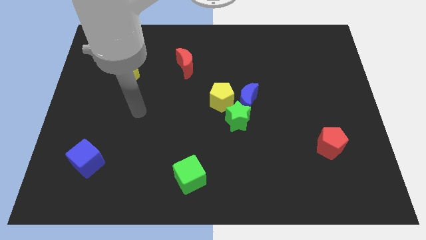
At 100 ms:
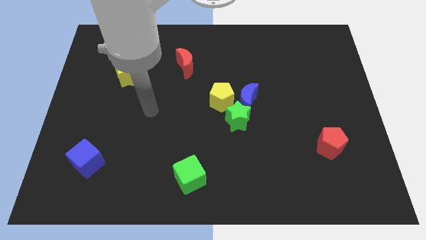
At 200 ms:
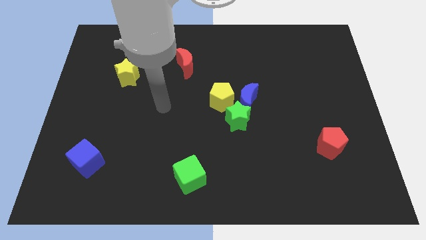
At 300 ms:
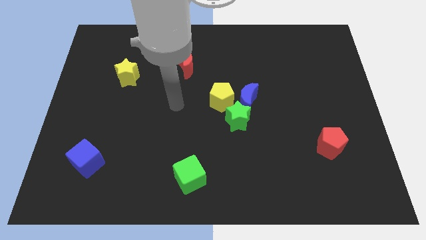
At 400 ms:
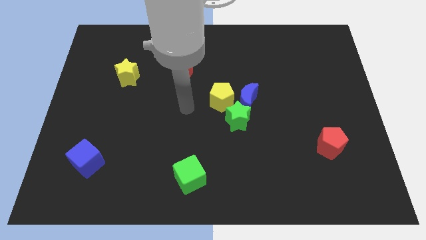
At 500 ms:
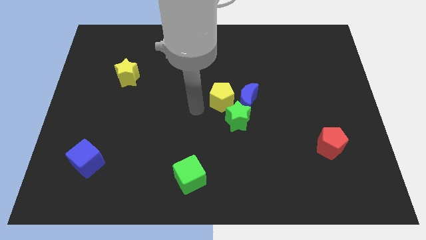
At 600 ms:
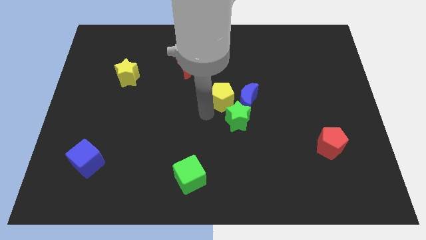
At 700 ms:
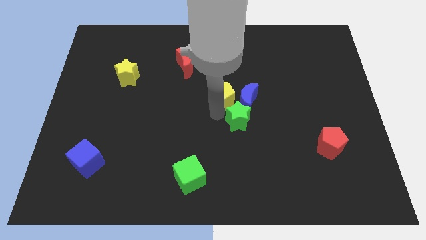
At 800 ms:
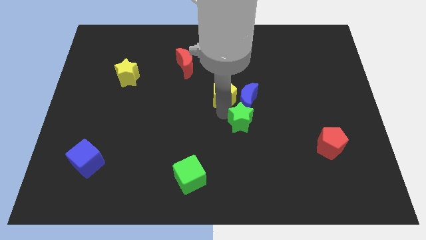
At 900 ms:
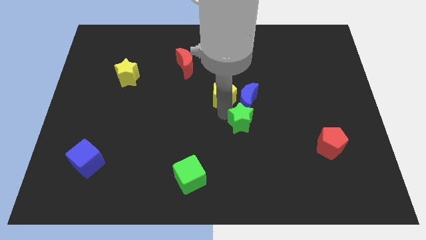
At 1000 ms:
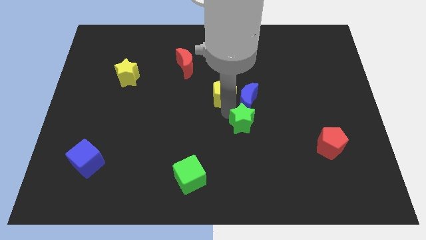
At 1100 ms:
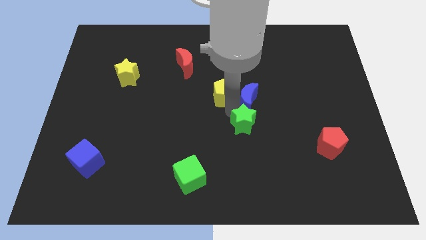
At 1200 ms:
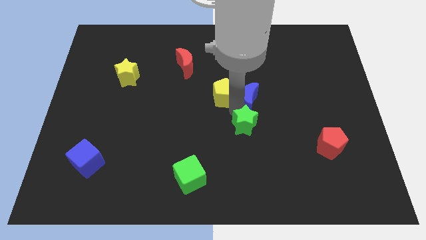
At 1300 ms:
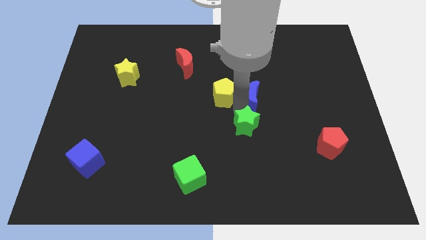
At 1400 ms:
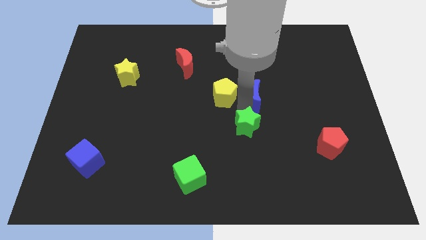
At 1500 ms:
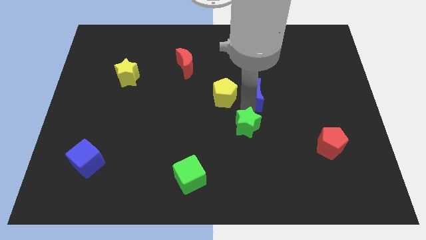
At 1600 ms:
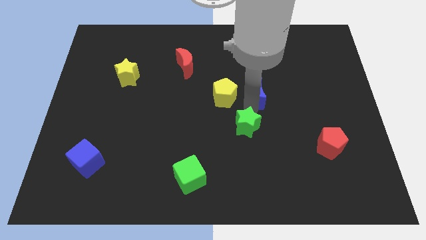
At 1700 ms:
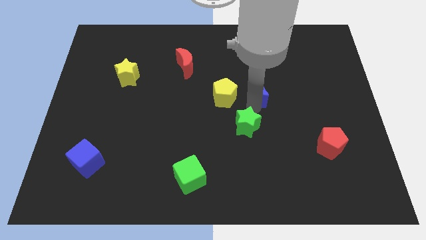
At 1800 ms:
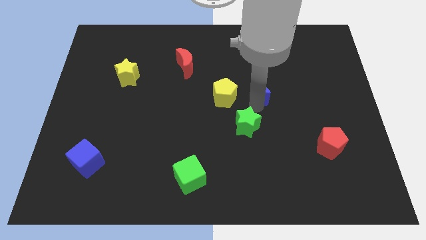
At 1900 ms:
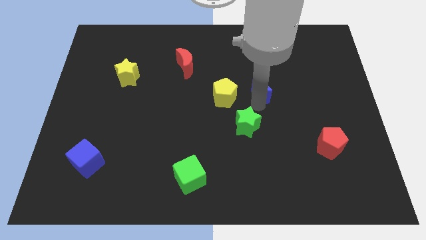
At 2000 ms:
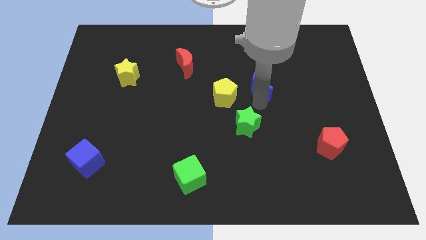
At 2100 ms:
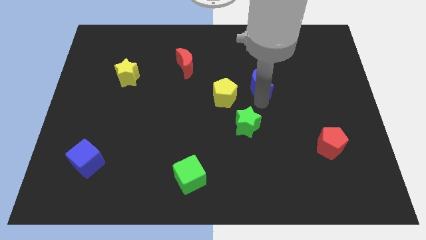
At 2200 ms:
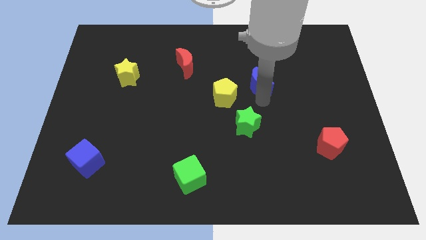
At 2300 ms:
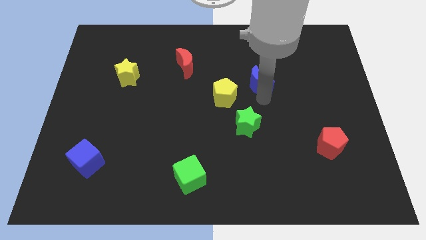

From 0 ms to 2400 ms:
pull the blue moon apart from the green star and yellow pentagon

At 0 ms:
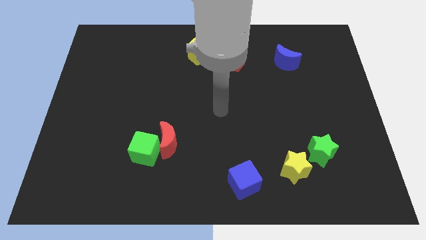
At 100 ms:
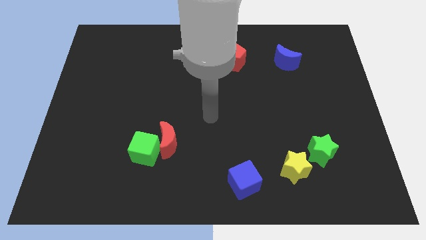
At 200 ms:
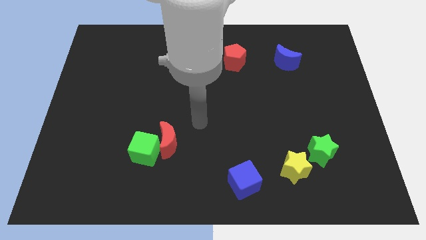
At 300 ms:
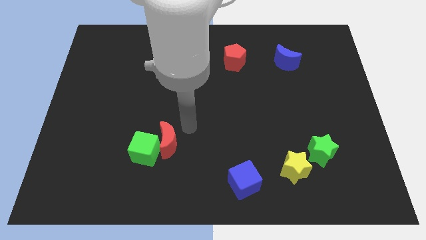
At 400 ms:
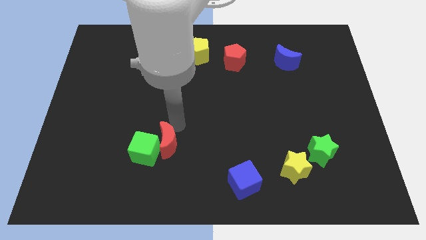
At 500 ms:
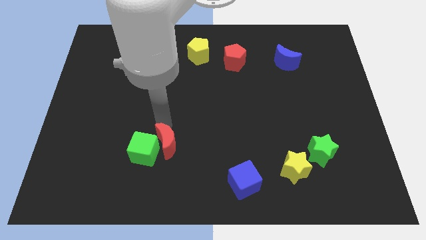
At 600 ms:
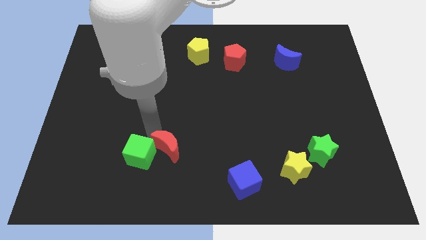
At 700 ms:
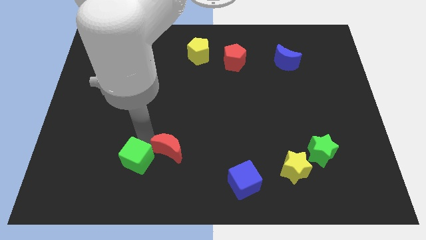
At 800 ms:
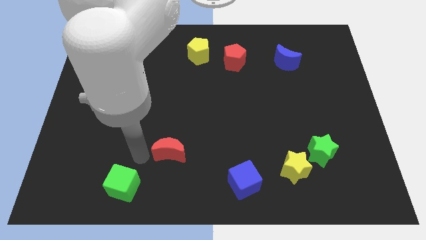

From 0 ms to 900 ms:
separate the red moon from the green cube

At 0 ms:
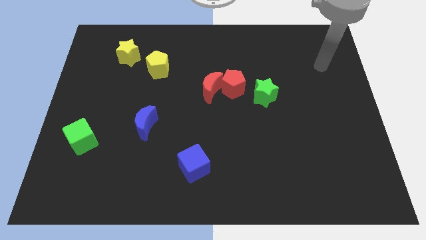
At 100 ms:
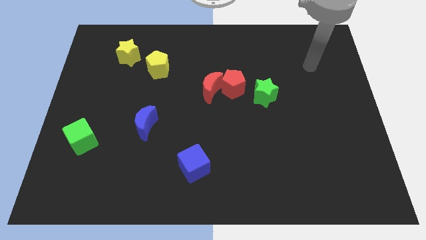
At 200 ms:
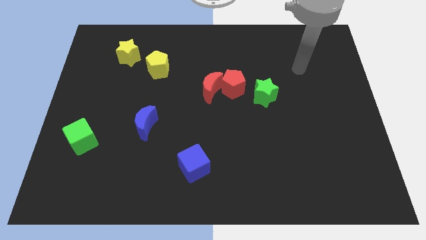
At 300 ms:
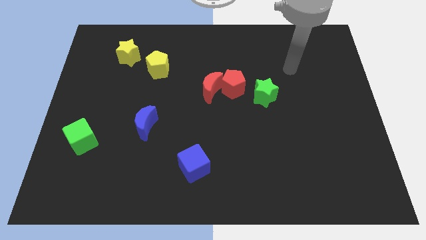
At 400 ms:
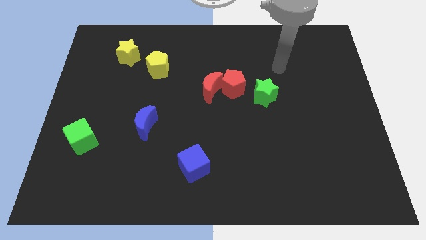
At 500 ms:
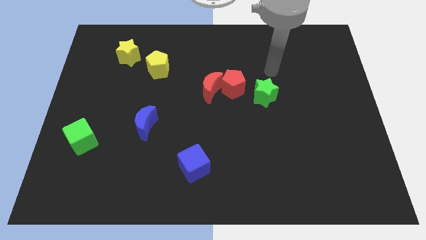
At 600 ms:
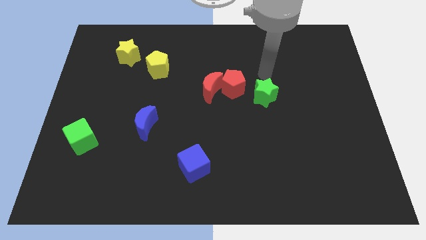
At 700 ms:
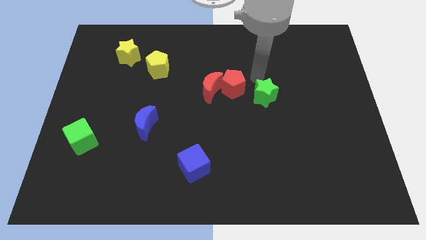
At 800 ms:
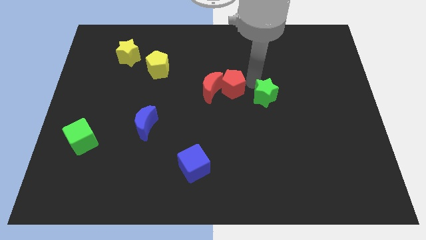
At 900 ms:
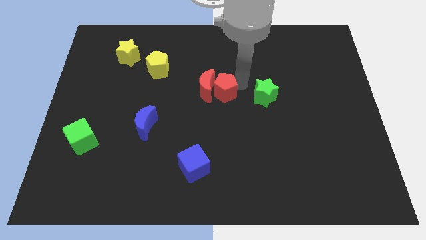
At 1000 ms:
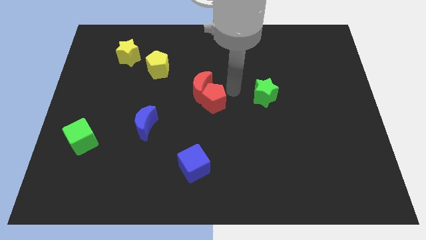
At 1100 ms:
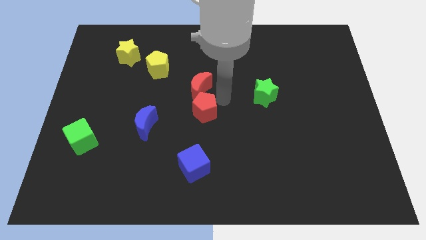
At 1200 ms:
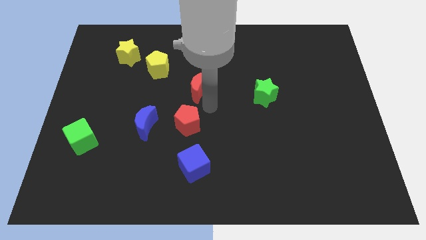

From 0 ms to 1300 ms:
pull the red moon apart from the red pentagon

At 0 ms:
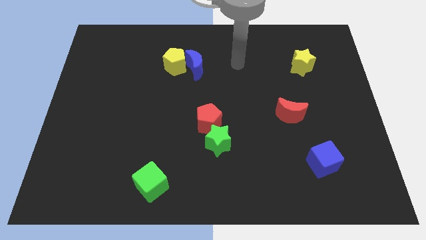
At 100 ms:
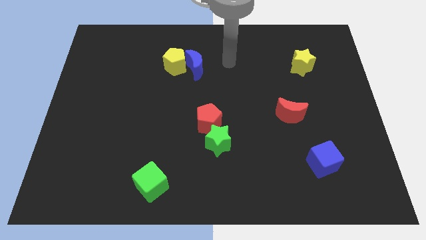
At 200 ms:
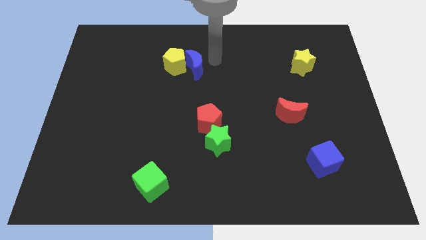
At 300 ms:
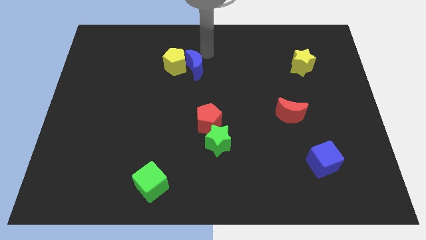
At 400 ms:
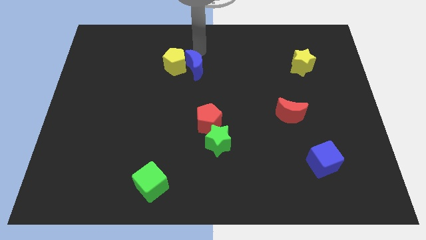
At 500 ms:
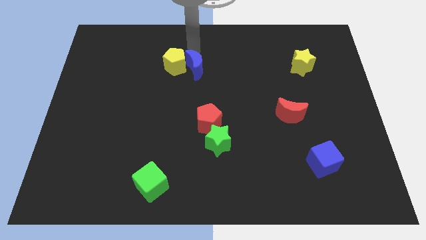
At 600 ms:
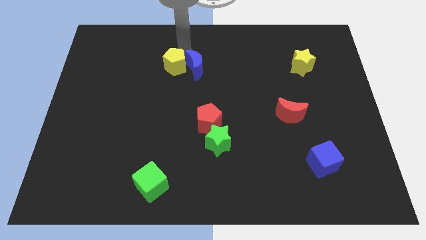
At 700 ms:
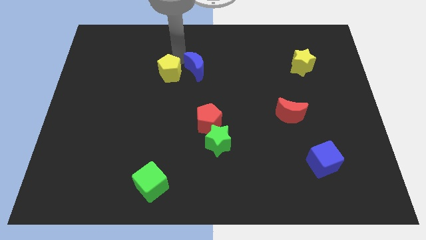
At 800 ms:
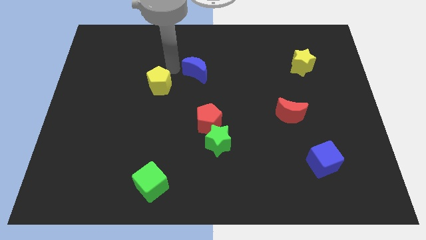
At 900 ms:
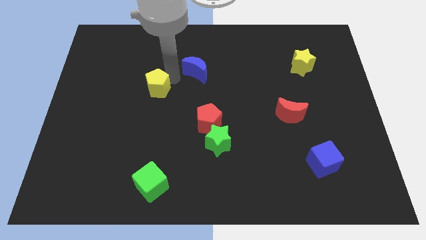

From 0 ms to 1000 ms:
move the blue moon away from the yellow pentagon

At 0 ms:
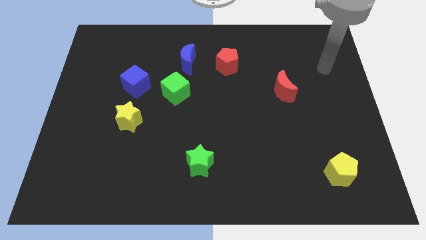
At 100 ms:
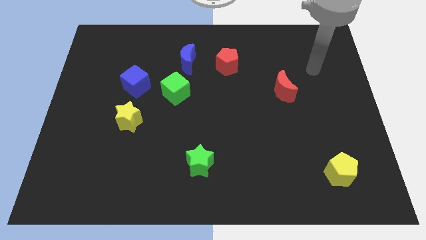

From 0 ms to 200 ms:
pull the blue cube apart from the green cube

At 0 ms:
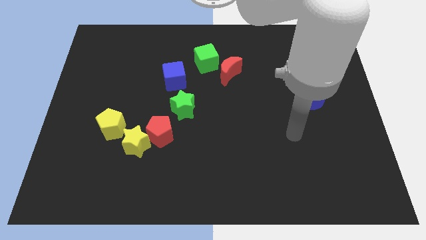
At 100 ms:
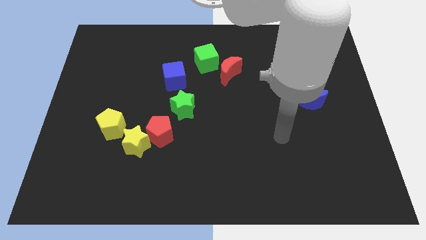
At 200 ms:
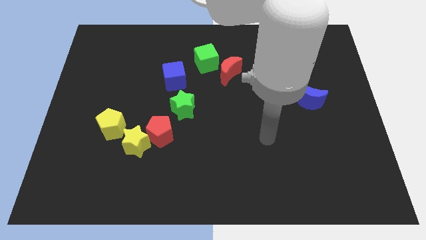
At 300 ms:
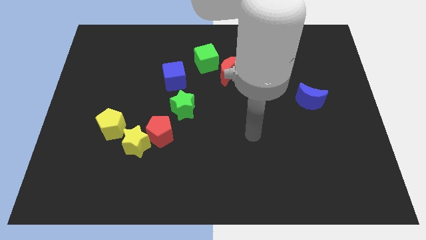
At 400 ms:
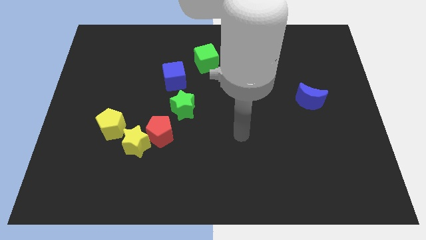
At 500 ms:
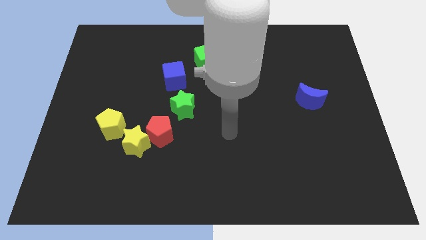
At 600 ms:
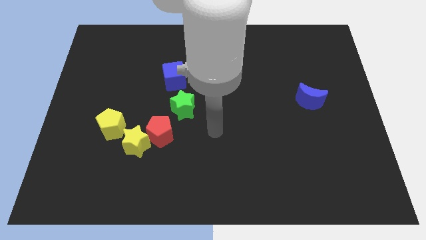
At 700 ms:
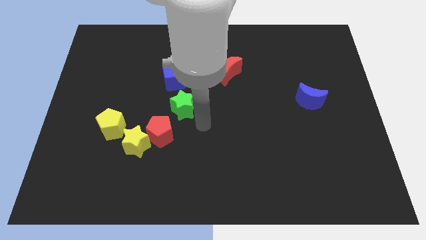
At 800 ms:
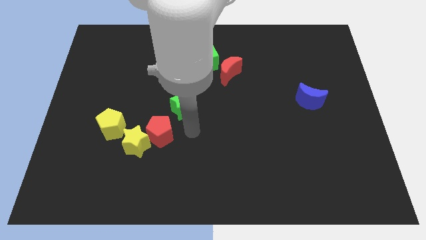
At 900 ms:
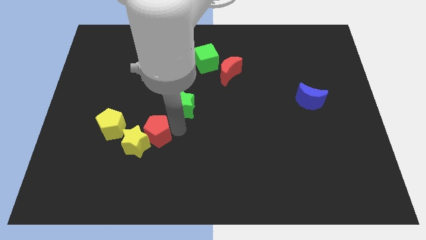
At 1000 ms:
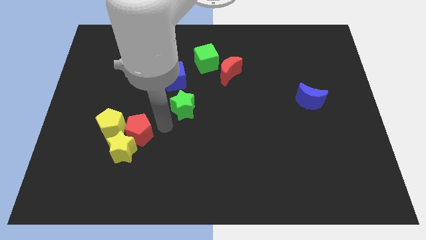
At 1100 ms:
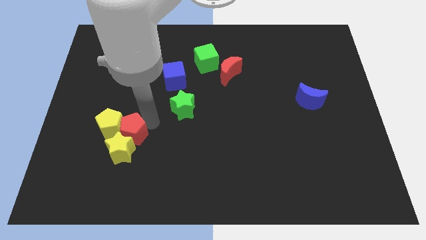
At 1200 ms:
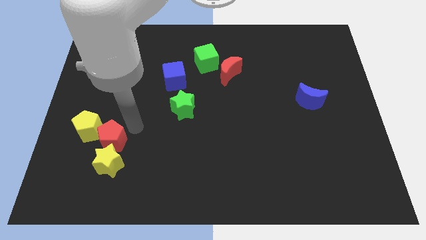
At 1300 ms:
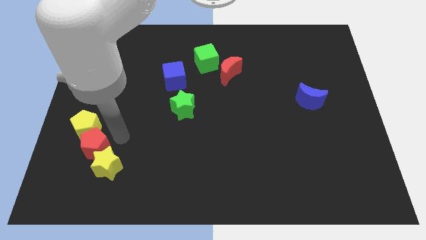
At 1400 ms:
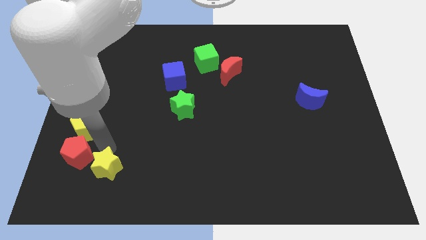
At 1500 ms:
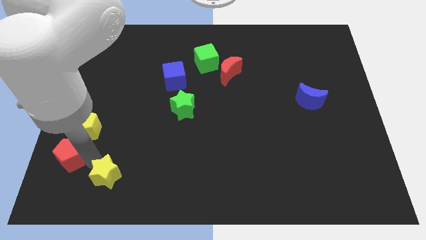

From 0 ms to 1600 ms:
move the yellow star away from the red pentagon and yellow pentagon

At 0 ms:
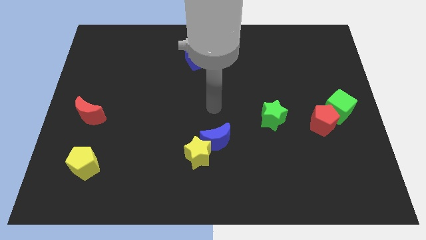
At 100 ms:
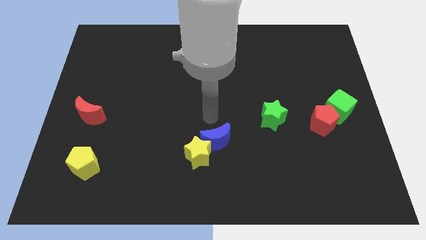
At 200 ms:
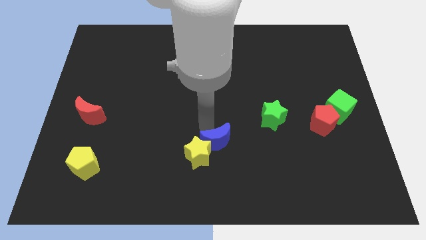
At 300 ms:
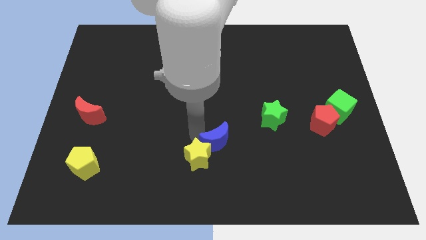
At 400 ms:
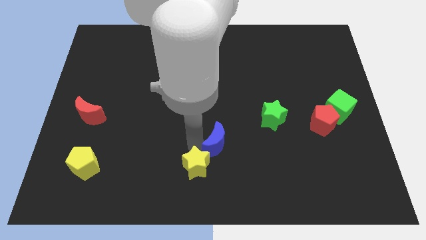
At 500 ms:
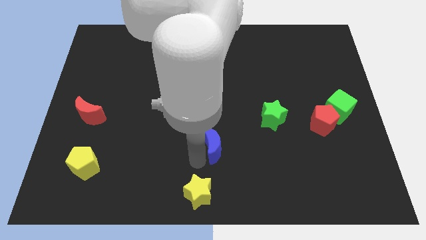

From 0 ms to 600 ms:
pull the blue moon apart from the yellow star

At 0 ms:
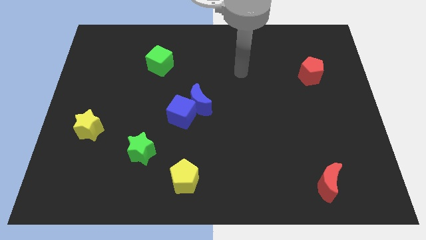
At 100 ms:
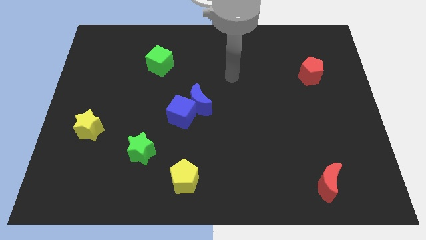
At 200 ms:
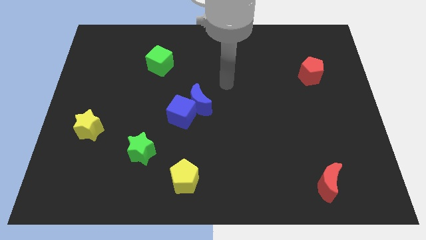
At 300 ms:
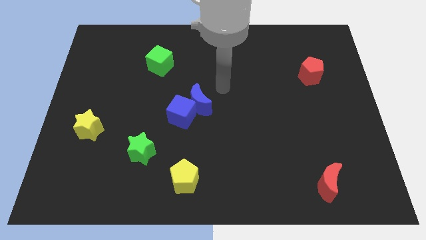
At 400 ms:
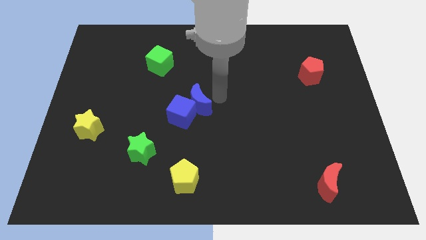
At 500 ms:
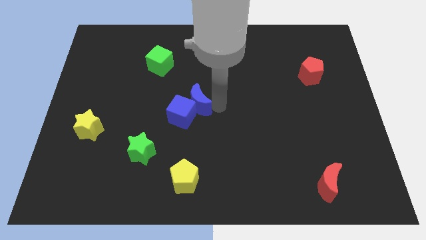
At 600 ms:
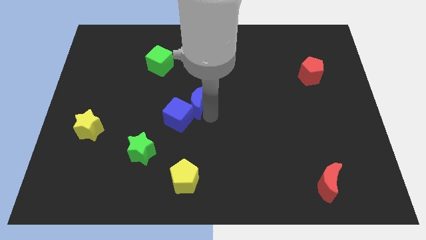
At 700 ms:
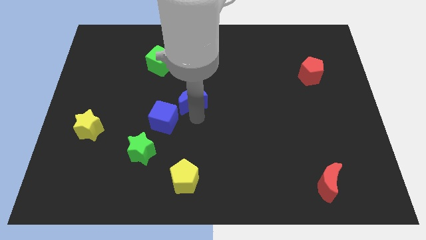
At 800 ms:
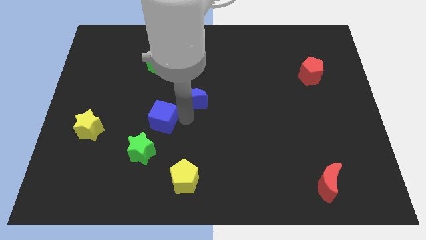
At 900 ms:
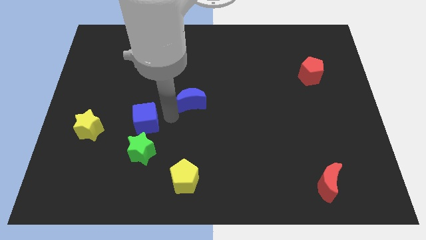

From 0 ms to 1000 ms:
move the blue moon away from the blue cube

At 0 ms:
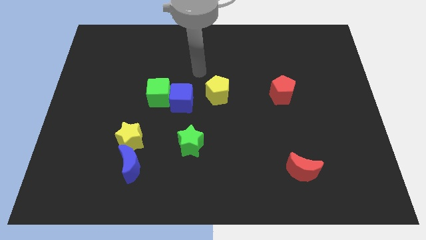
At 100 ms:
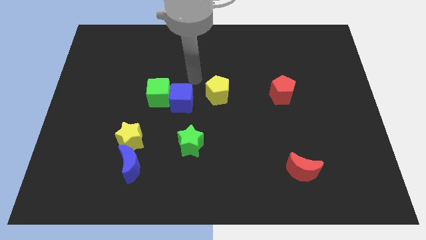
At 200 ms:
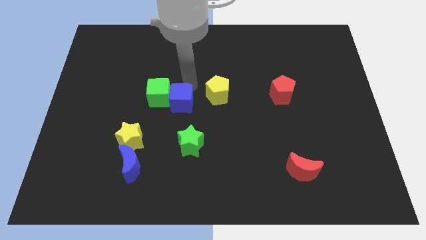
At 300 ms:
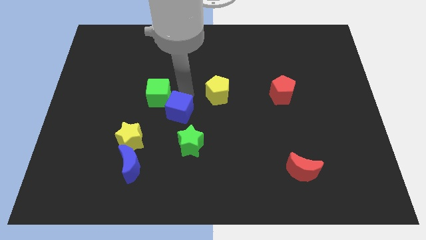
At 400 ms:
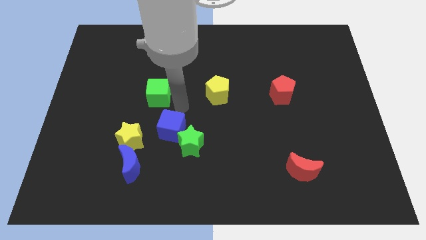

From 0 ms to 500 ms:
pull the green cube apart from the blue cube
